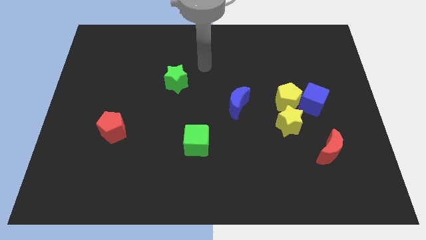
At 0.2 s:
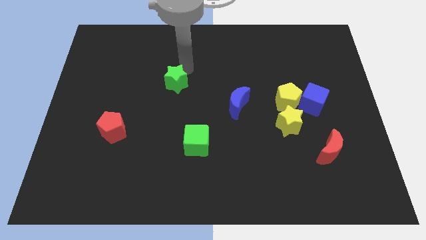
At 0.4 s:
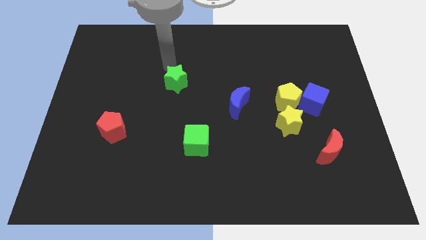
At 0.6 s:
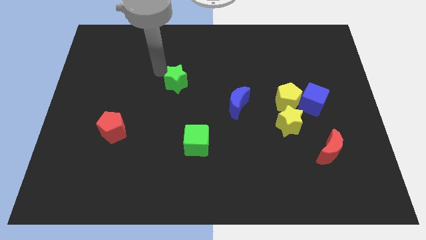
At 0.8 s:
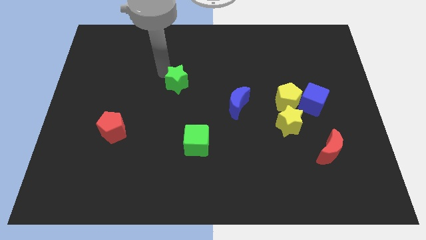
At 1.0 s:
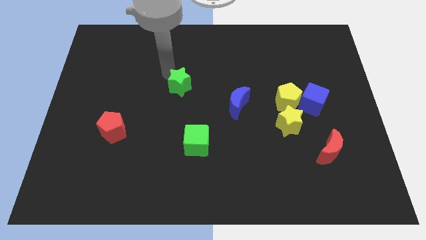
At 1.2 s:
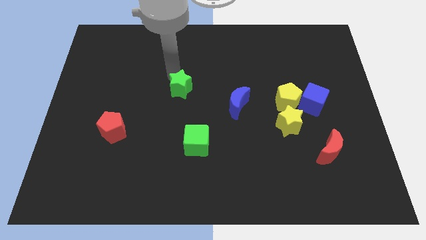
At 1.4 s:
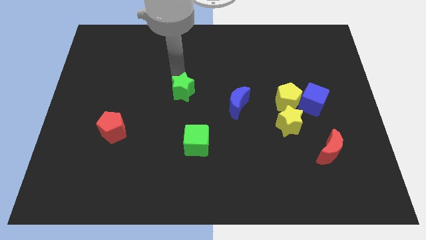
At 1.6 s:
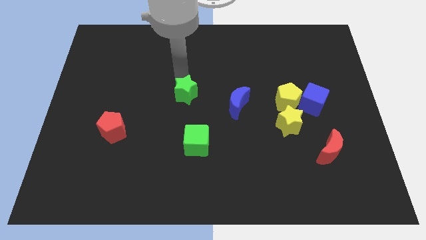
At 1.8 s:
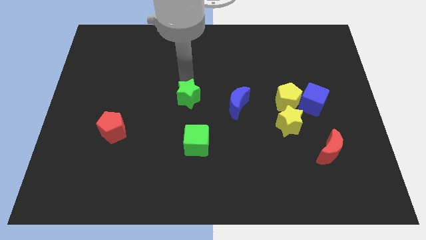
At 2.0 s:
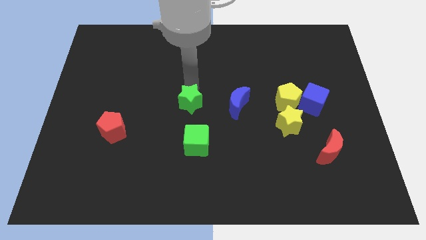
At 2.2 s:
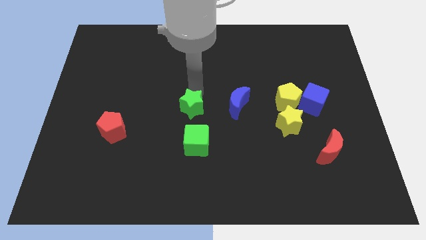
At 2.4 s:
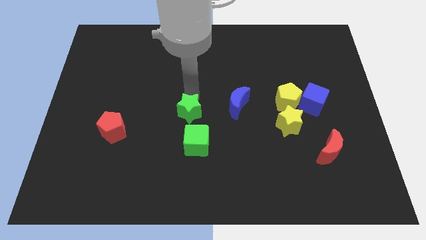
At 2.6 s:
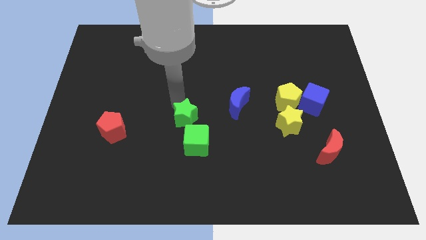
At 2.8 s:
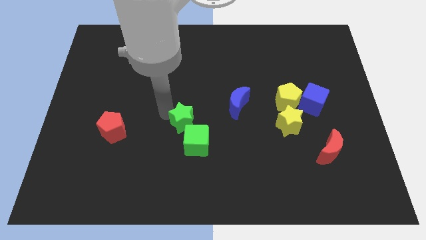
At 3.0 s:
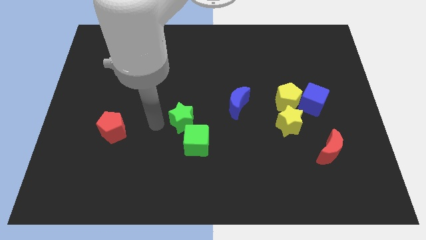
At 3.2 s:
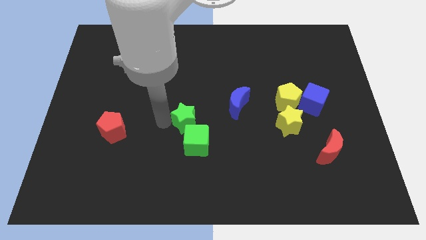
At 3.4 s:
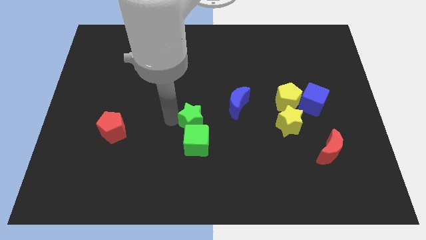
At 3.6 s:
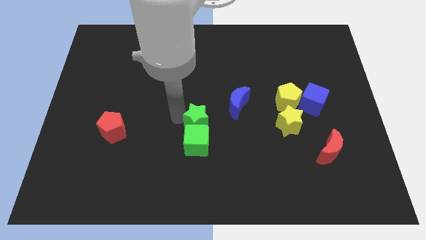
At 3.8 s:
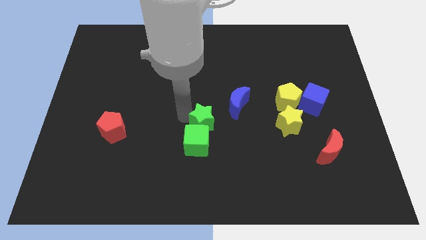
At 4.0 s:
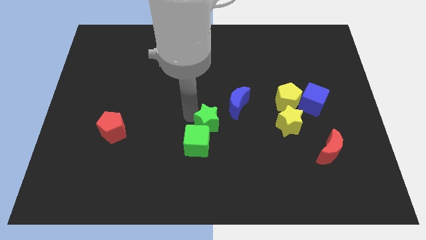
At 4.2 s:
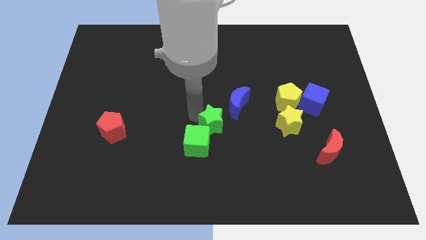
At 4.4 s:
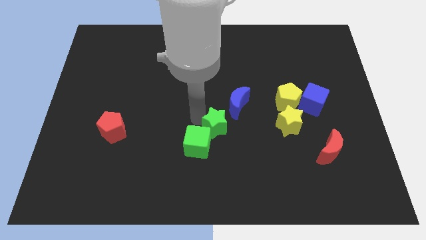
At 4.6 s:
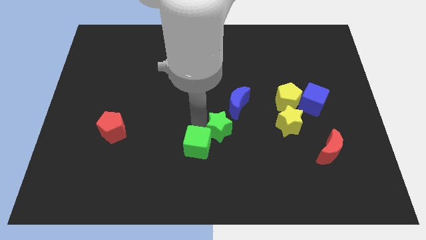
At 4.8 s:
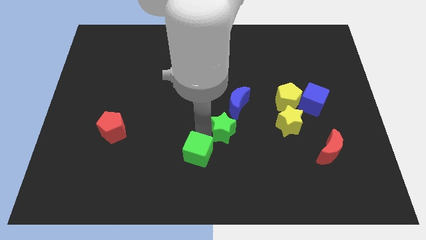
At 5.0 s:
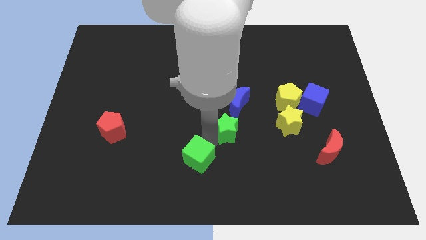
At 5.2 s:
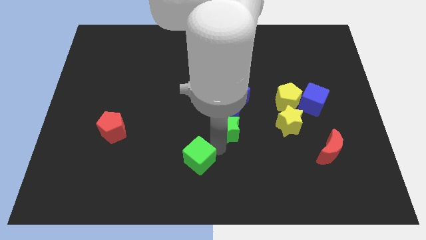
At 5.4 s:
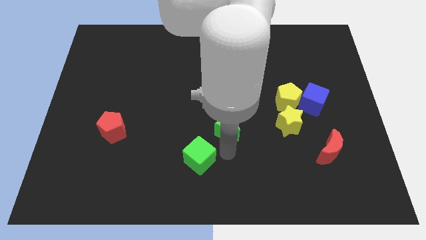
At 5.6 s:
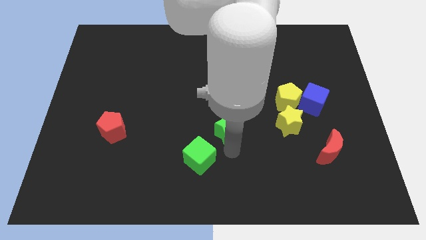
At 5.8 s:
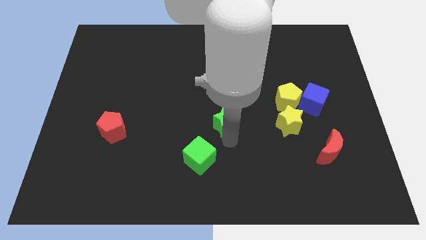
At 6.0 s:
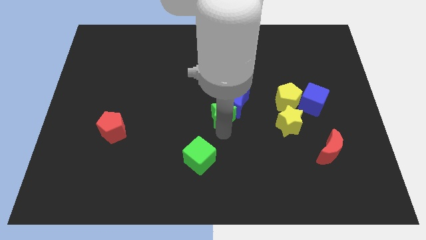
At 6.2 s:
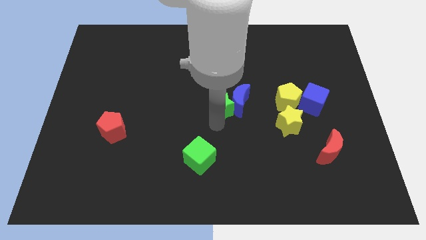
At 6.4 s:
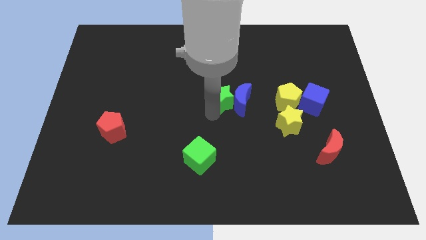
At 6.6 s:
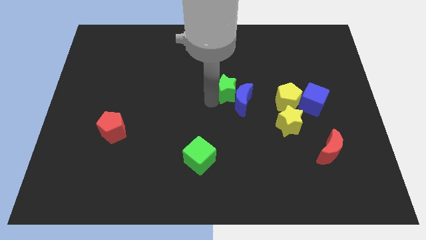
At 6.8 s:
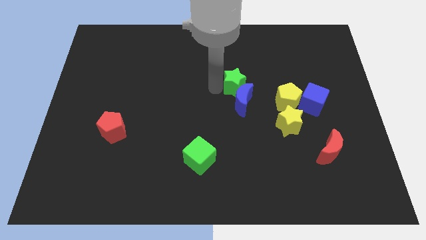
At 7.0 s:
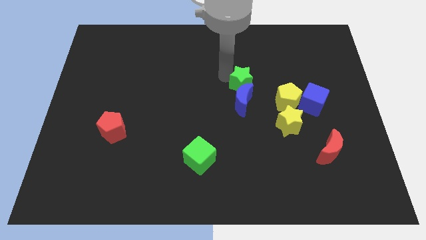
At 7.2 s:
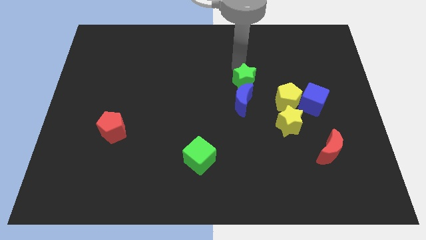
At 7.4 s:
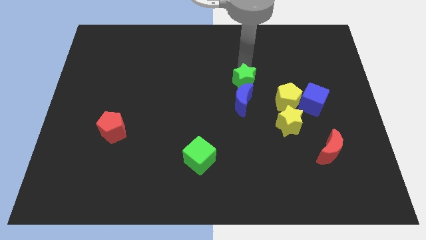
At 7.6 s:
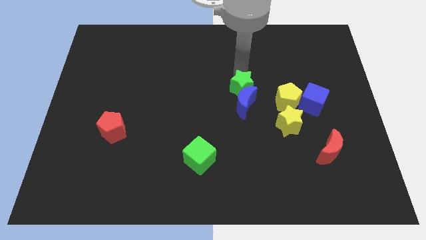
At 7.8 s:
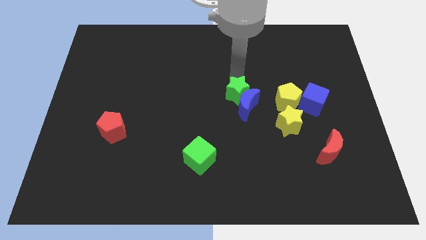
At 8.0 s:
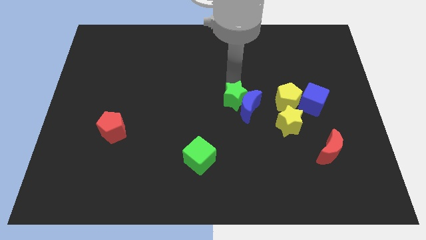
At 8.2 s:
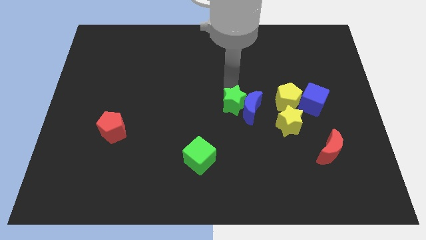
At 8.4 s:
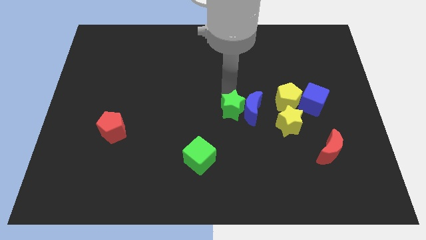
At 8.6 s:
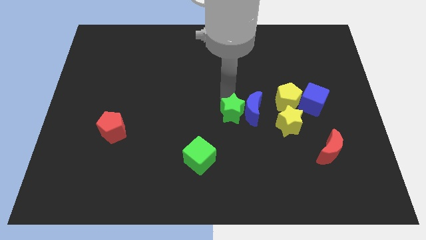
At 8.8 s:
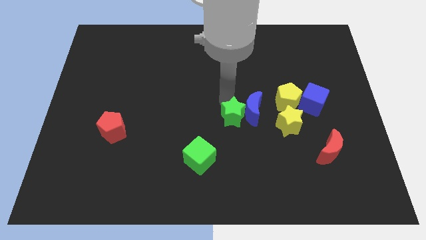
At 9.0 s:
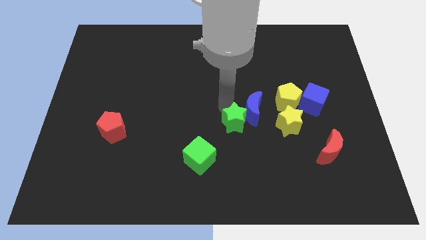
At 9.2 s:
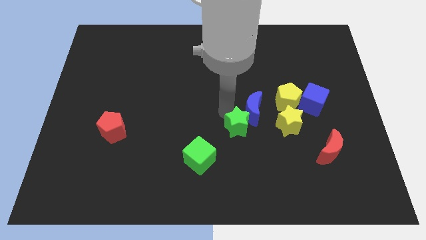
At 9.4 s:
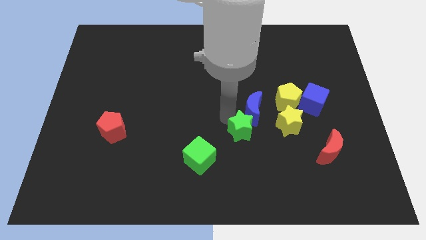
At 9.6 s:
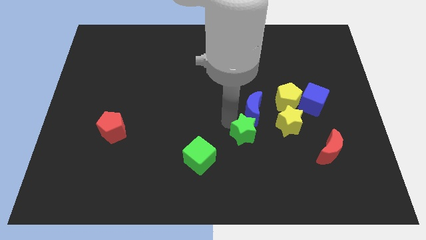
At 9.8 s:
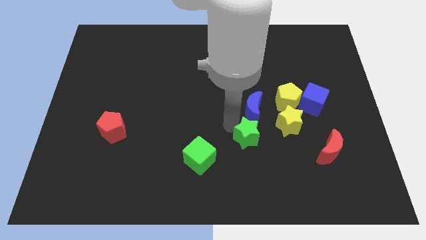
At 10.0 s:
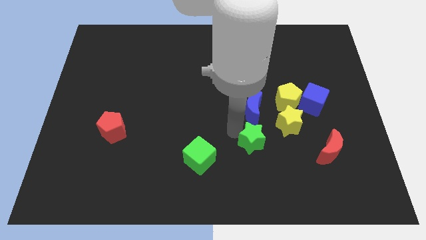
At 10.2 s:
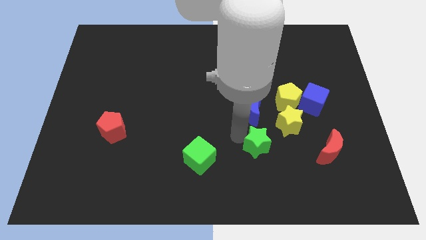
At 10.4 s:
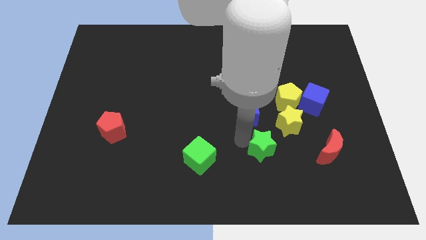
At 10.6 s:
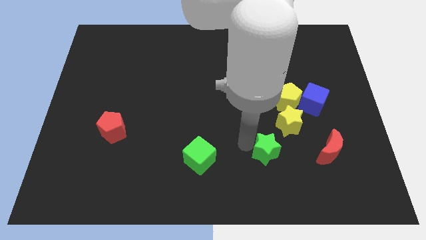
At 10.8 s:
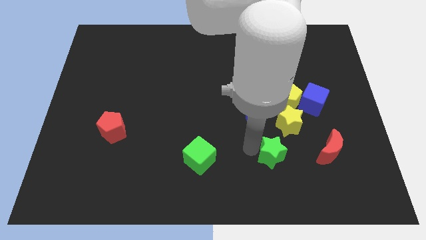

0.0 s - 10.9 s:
push the green star below the yellow star

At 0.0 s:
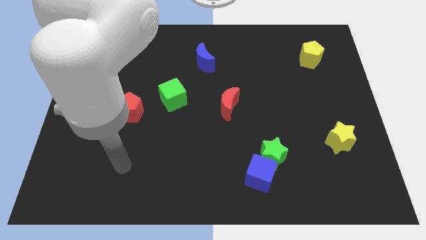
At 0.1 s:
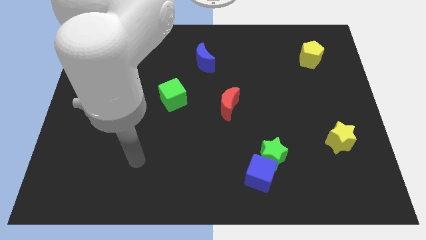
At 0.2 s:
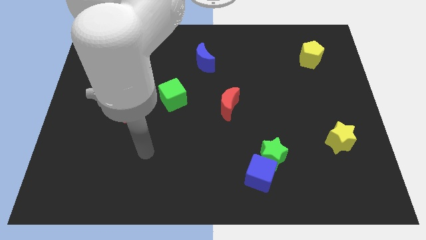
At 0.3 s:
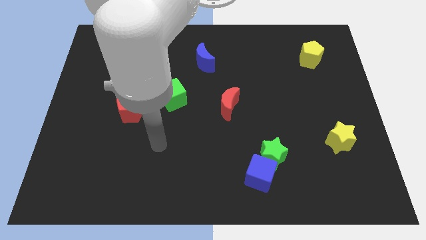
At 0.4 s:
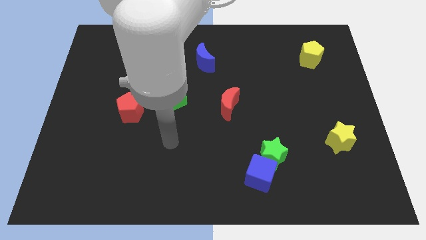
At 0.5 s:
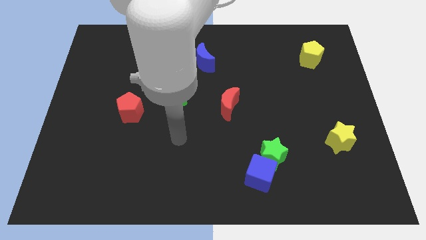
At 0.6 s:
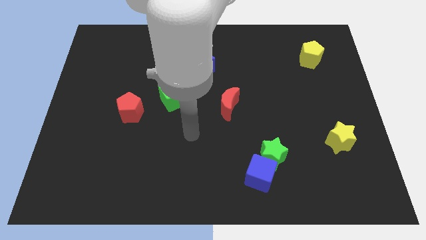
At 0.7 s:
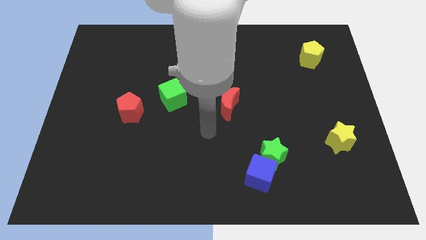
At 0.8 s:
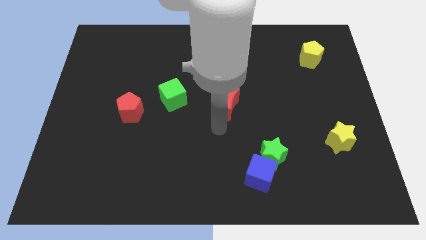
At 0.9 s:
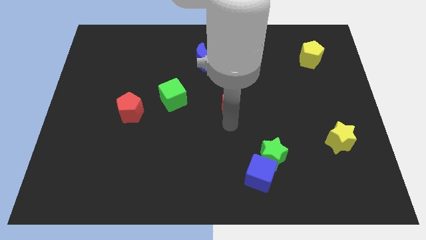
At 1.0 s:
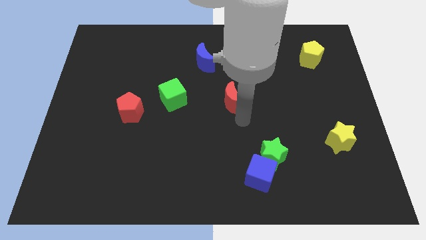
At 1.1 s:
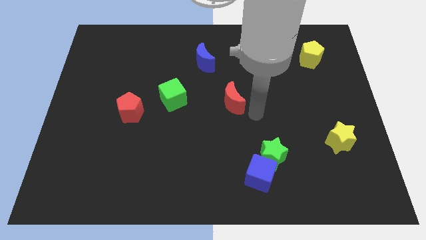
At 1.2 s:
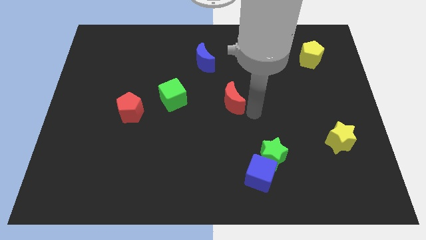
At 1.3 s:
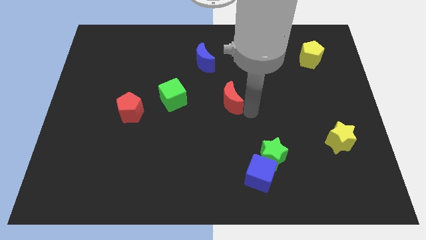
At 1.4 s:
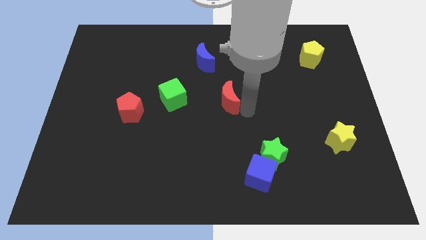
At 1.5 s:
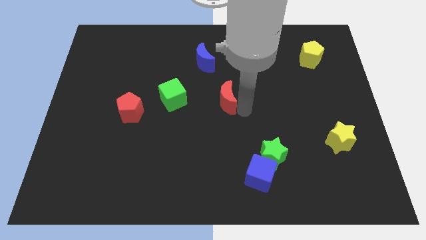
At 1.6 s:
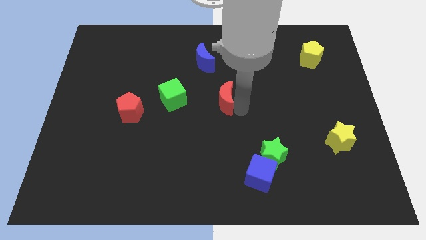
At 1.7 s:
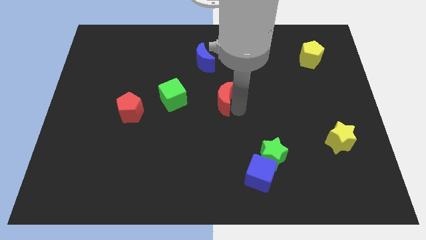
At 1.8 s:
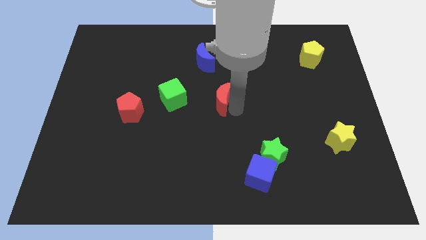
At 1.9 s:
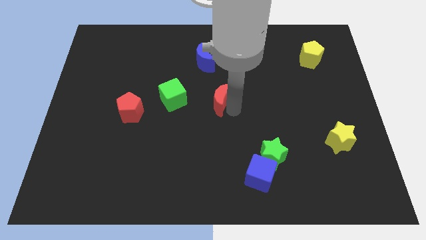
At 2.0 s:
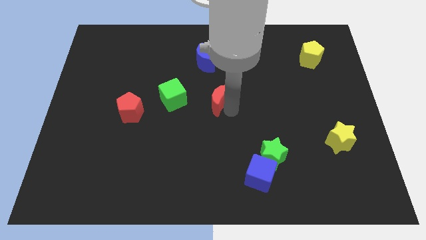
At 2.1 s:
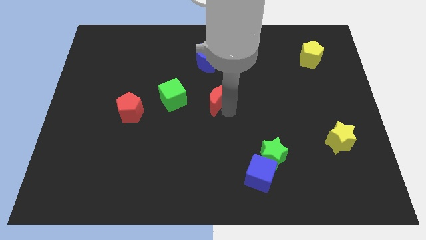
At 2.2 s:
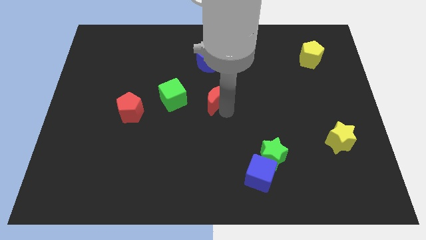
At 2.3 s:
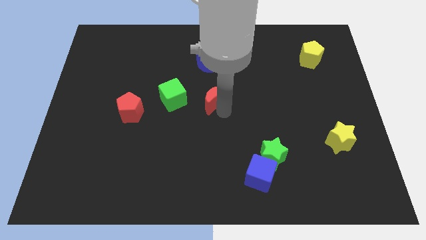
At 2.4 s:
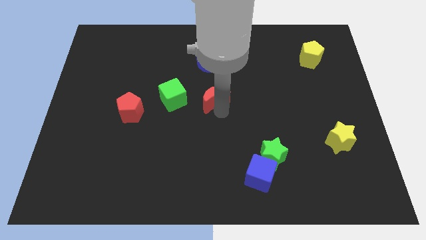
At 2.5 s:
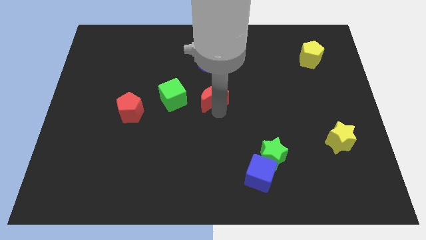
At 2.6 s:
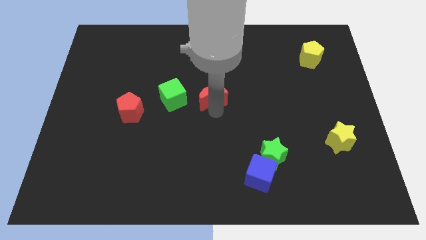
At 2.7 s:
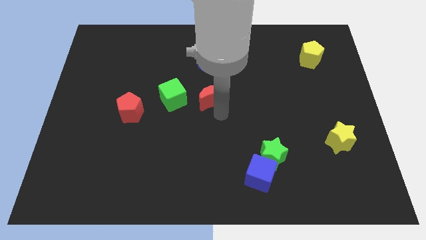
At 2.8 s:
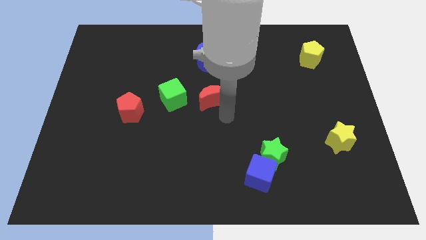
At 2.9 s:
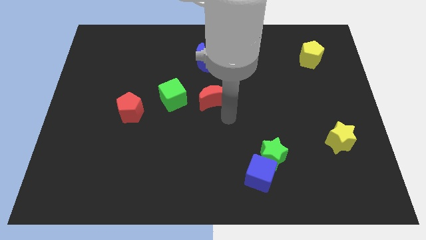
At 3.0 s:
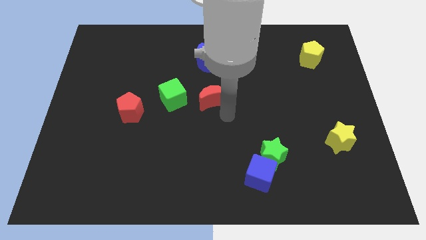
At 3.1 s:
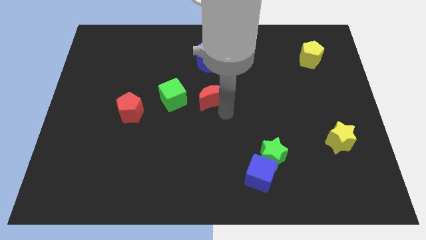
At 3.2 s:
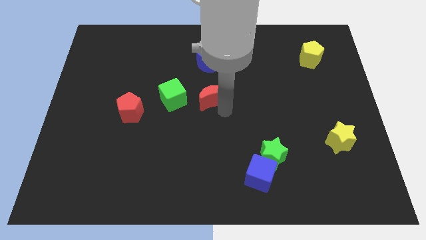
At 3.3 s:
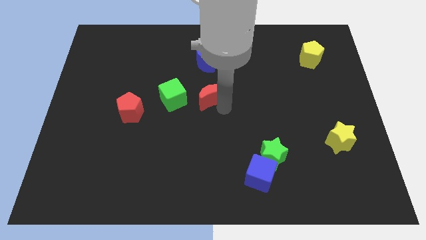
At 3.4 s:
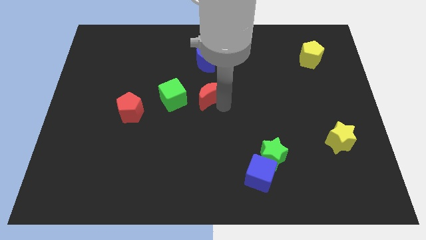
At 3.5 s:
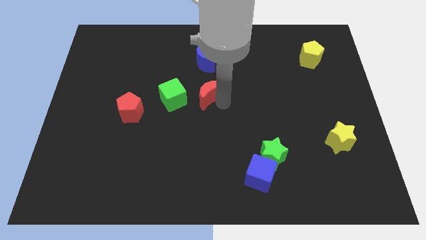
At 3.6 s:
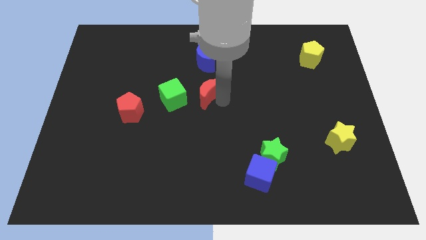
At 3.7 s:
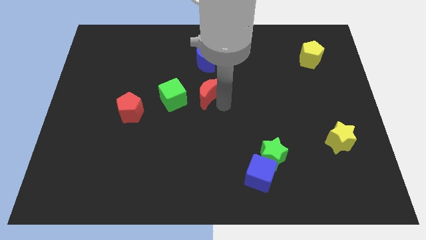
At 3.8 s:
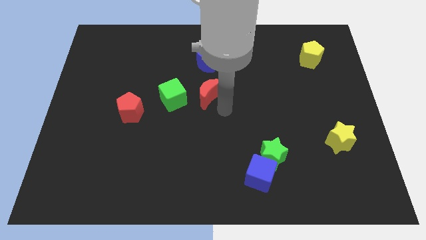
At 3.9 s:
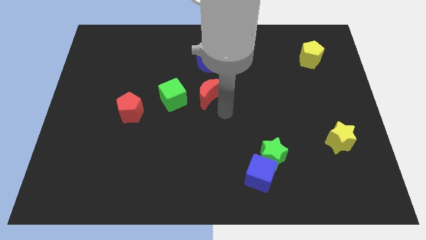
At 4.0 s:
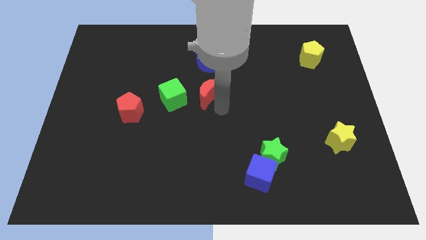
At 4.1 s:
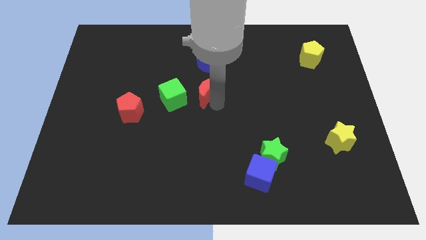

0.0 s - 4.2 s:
move the red moon diagonally up and to the right of the green cube
